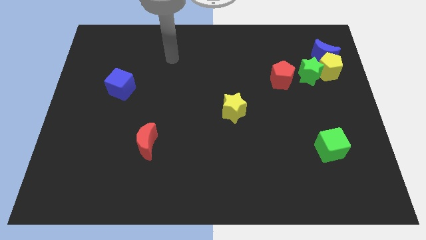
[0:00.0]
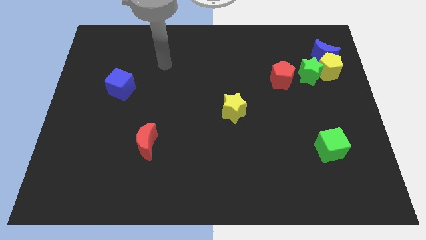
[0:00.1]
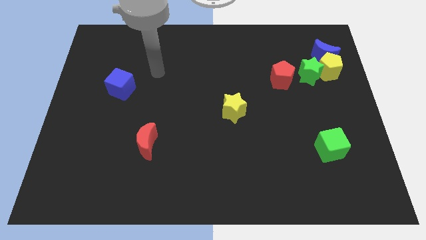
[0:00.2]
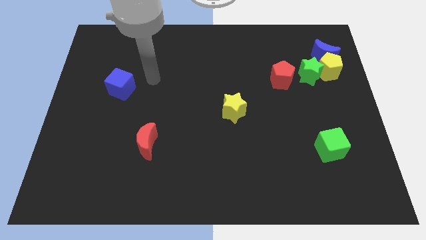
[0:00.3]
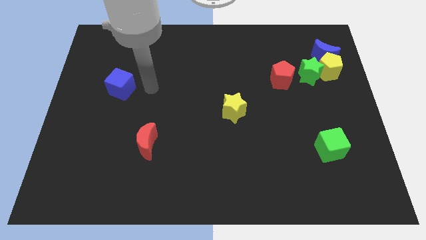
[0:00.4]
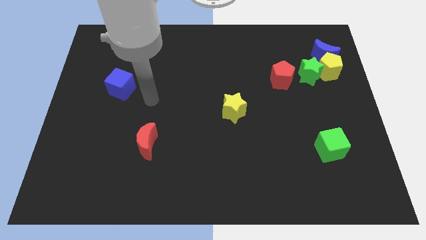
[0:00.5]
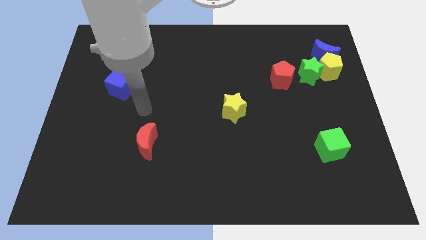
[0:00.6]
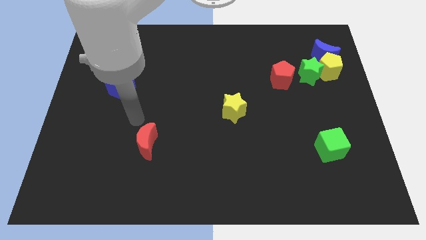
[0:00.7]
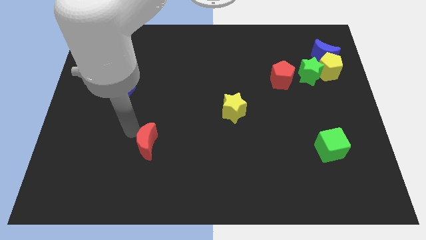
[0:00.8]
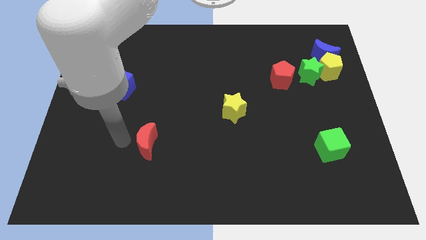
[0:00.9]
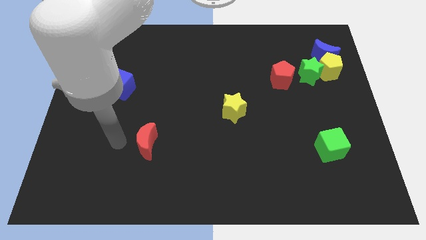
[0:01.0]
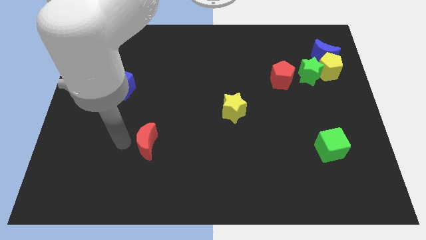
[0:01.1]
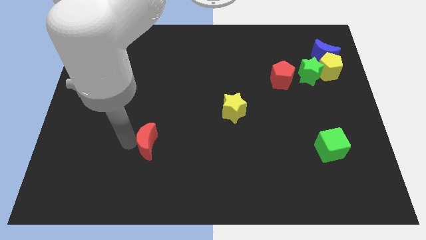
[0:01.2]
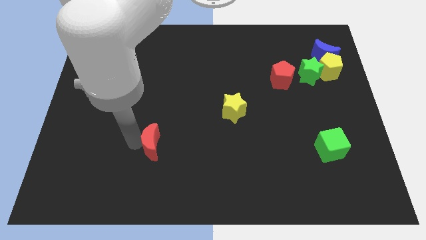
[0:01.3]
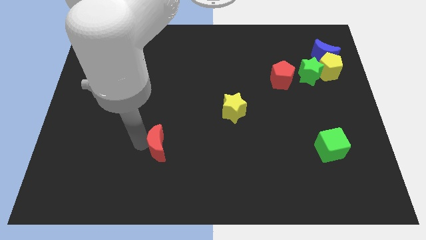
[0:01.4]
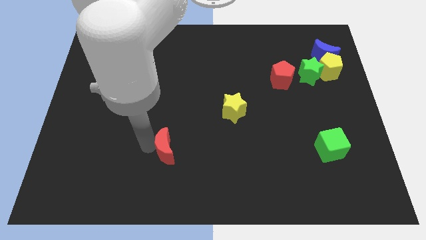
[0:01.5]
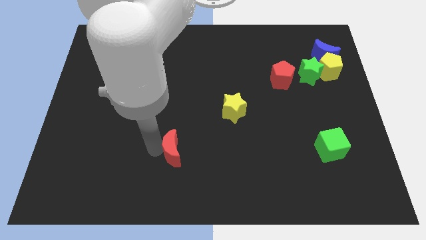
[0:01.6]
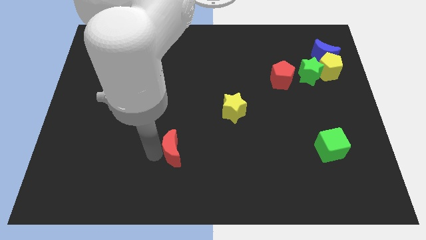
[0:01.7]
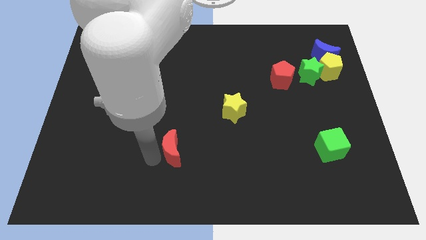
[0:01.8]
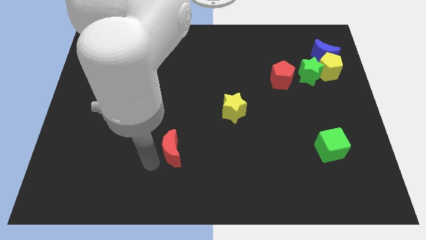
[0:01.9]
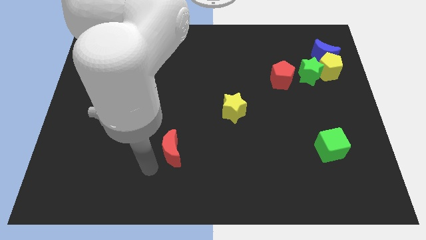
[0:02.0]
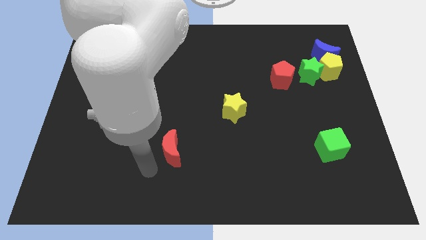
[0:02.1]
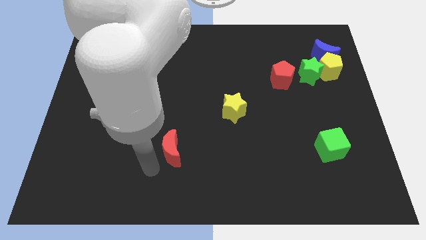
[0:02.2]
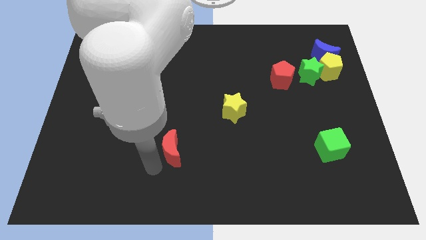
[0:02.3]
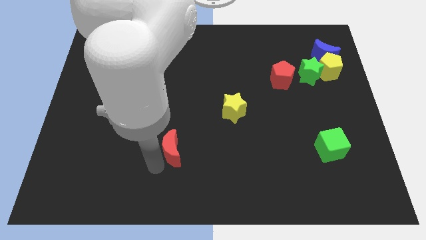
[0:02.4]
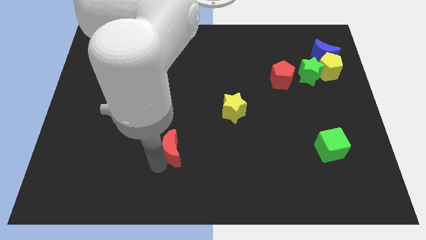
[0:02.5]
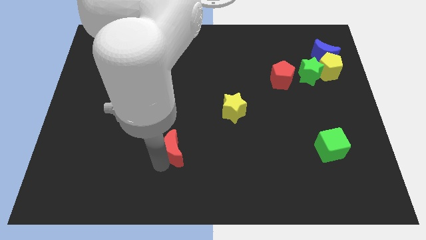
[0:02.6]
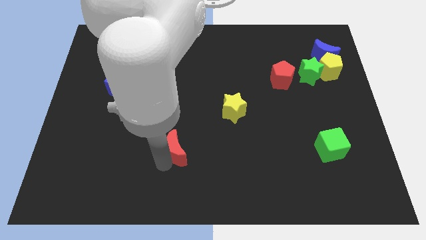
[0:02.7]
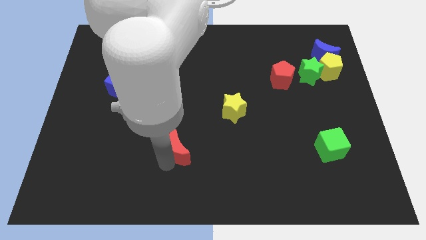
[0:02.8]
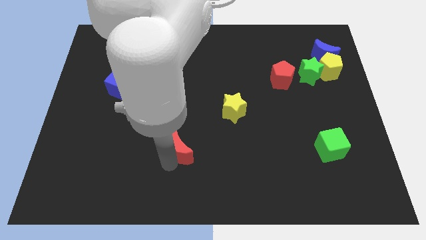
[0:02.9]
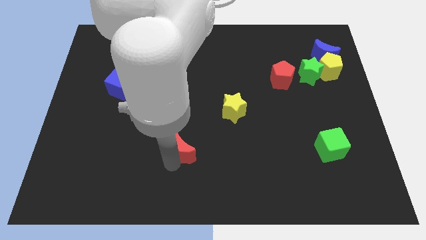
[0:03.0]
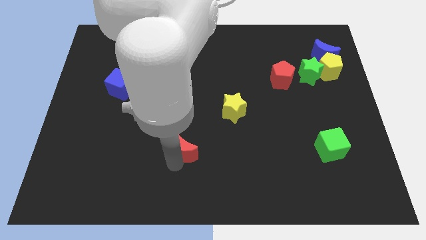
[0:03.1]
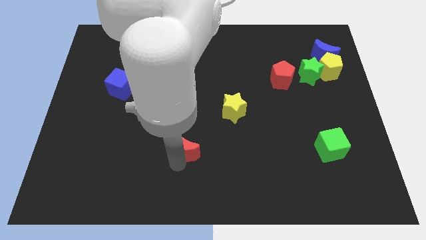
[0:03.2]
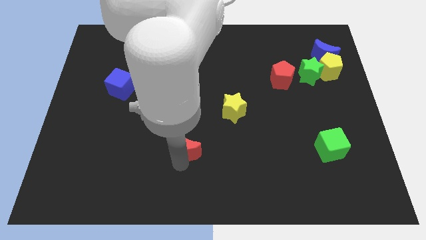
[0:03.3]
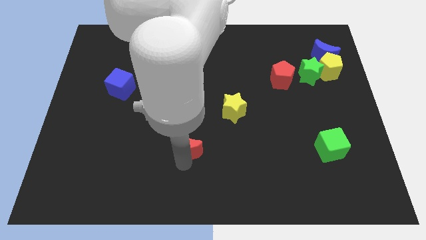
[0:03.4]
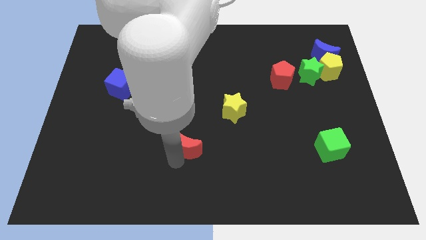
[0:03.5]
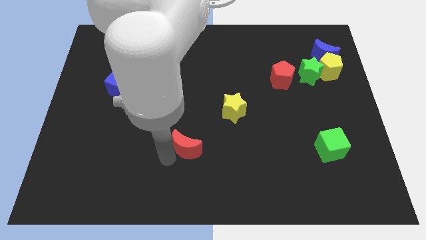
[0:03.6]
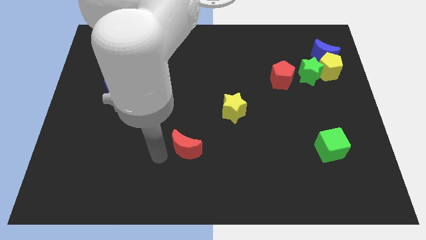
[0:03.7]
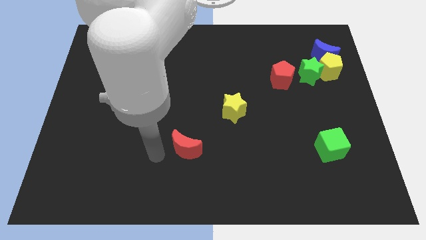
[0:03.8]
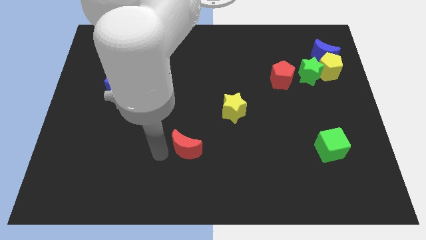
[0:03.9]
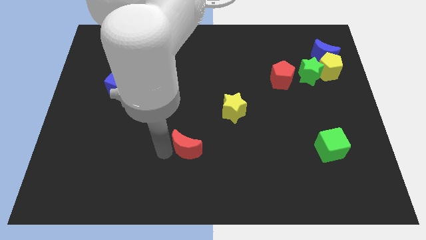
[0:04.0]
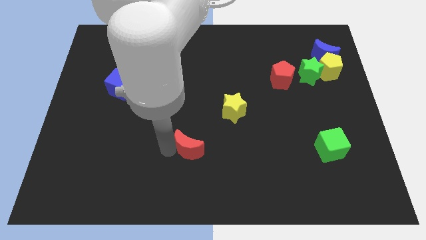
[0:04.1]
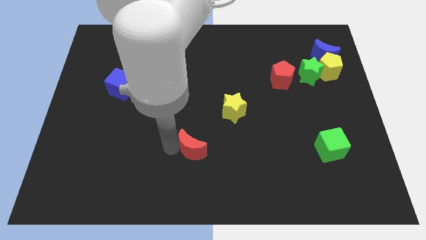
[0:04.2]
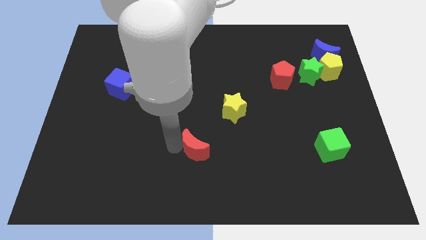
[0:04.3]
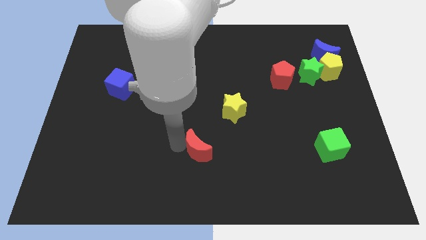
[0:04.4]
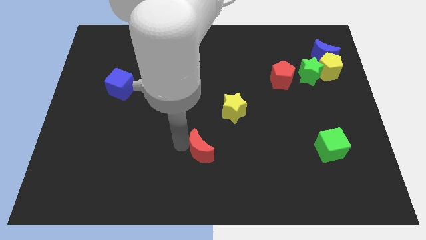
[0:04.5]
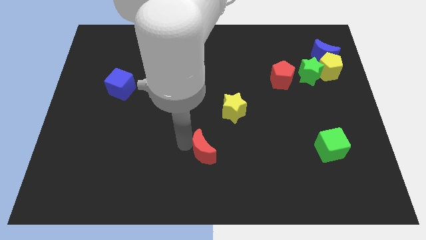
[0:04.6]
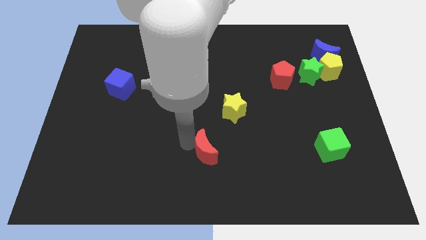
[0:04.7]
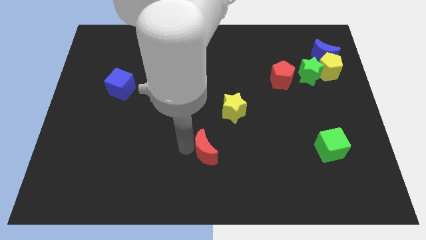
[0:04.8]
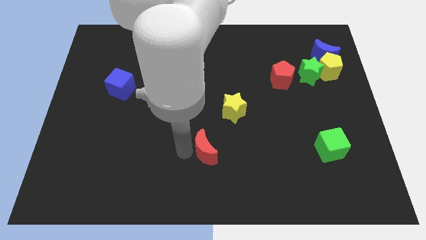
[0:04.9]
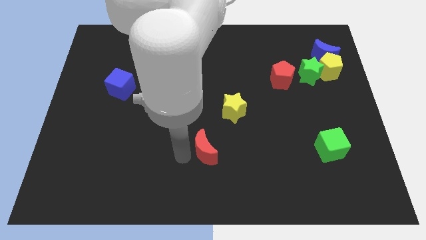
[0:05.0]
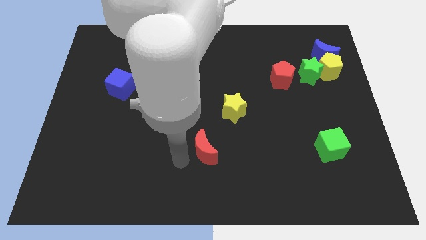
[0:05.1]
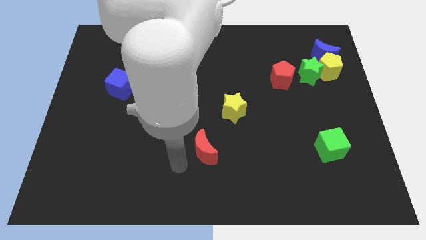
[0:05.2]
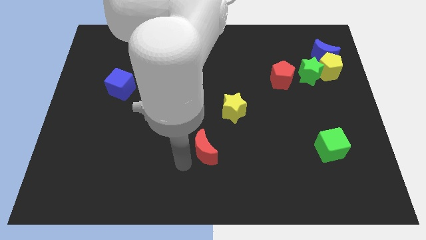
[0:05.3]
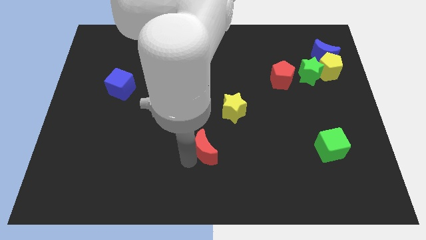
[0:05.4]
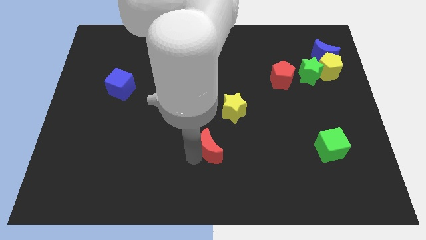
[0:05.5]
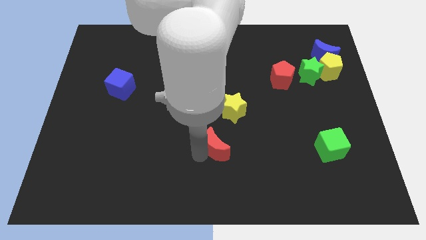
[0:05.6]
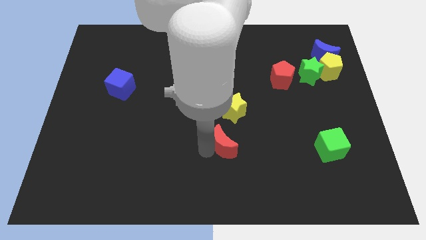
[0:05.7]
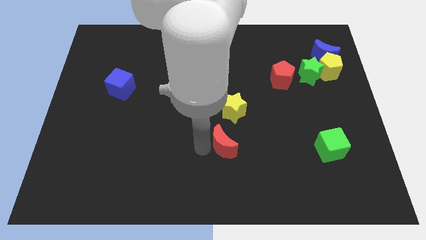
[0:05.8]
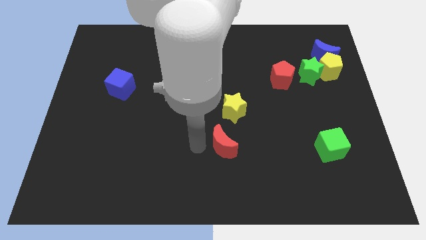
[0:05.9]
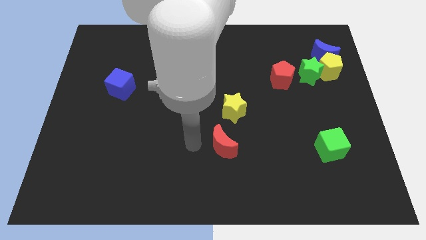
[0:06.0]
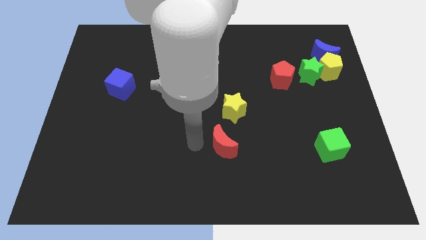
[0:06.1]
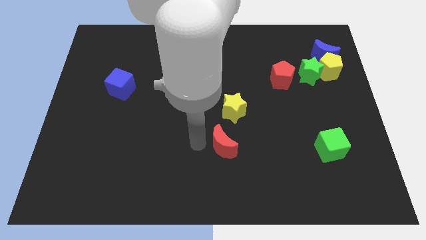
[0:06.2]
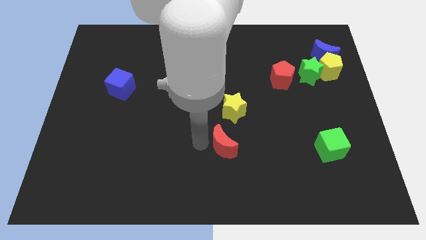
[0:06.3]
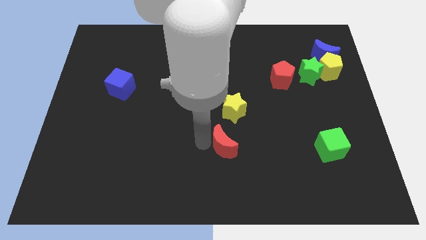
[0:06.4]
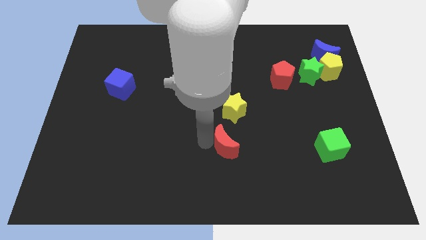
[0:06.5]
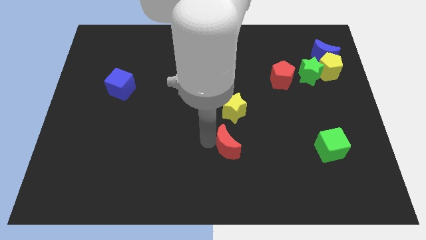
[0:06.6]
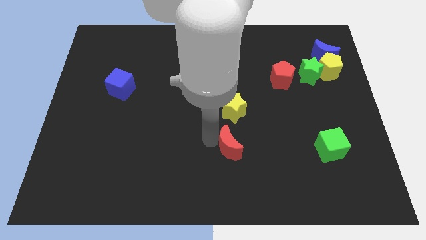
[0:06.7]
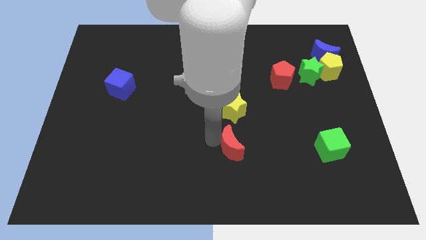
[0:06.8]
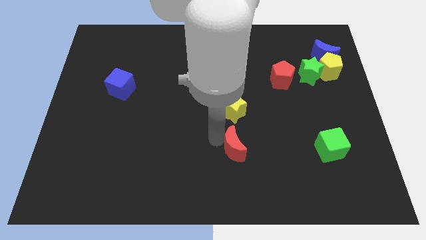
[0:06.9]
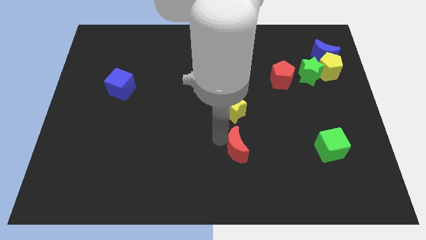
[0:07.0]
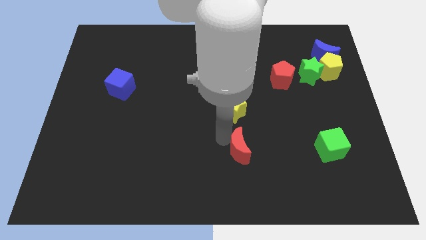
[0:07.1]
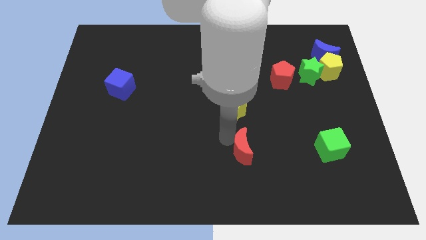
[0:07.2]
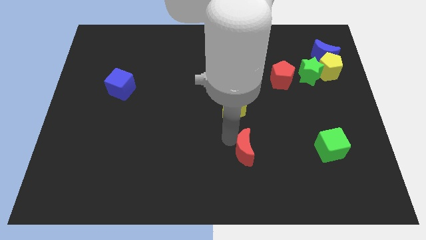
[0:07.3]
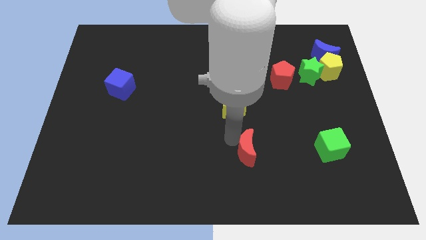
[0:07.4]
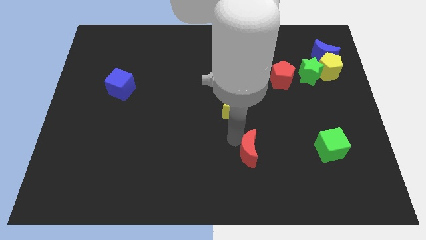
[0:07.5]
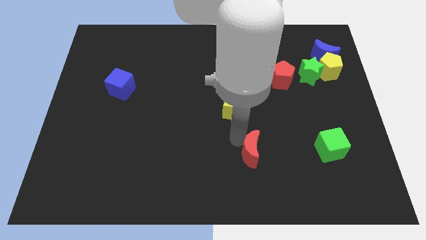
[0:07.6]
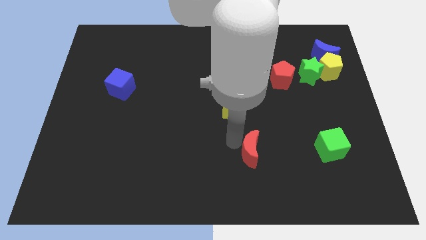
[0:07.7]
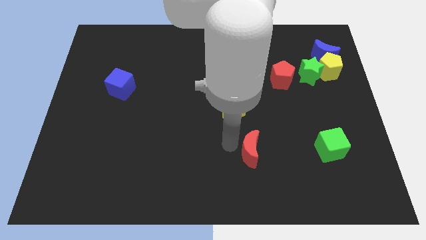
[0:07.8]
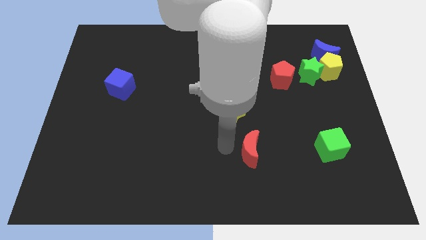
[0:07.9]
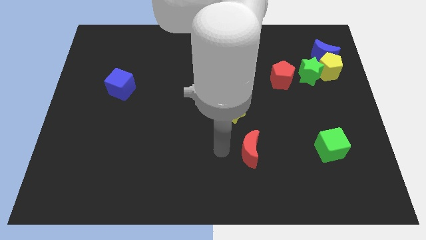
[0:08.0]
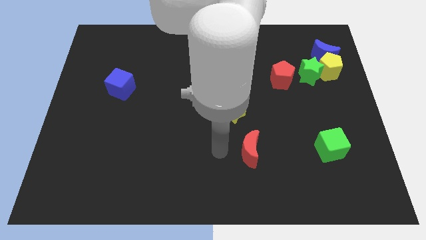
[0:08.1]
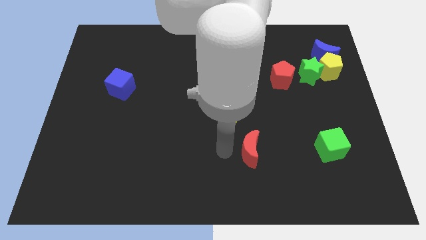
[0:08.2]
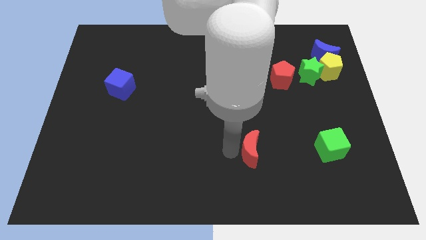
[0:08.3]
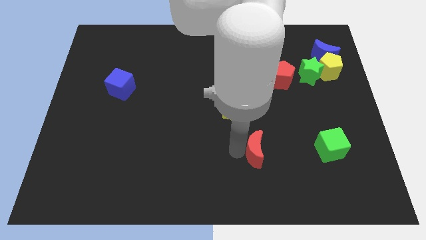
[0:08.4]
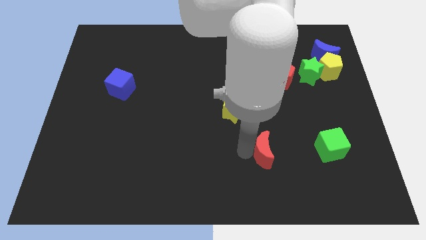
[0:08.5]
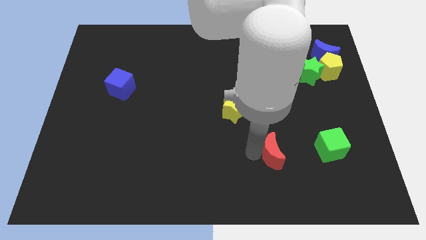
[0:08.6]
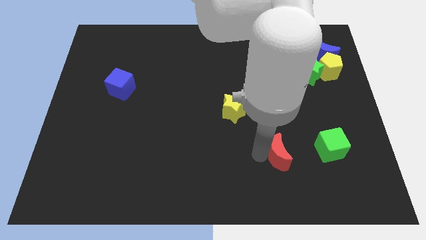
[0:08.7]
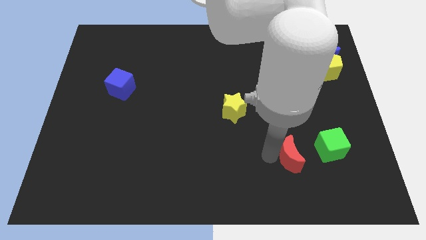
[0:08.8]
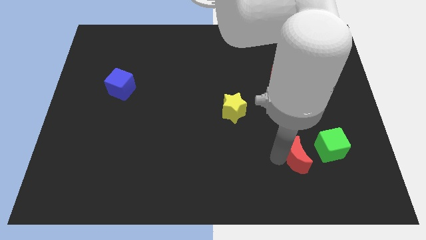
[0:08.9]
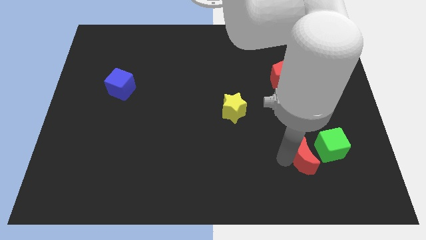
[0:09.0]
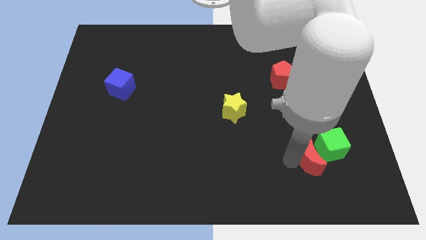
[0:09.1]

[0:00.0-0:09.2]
move the red moon close to the green cube
